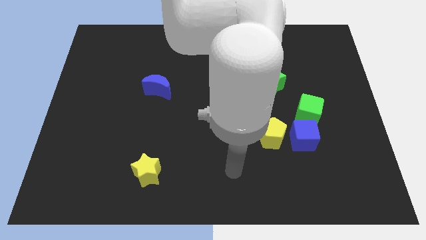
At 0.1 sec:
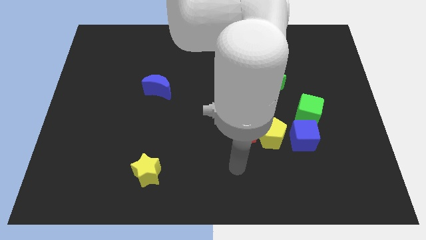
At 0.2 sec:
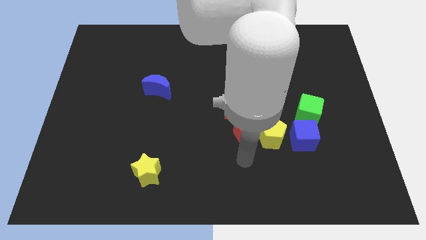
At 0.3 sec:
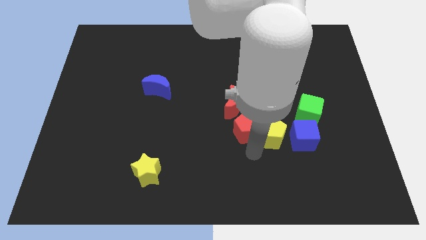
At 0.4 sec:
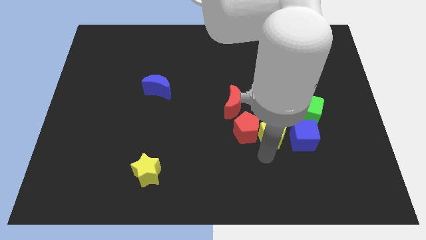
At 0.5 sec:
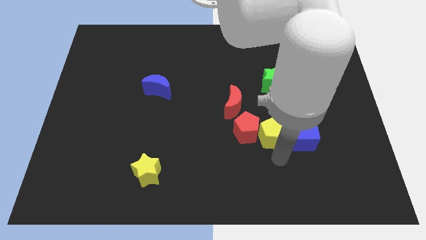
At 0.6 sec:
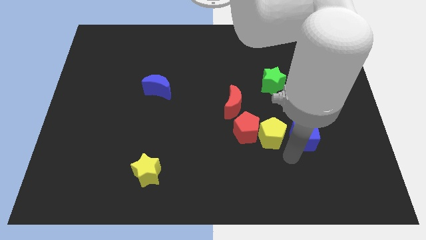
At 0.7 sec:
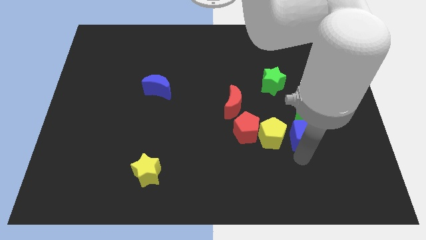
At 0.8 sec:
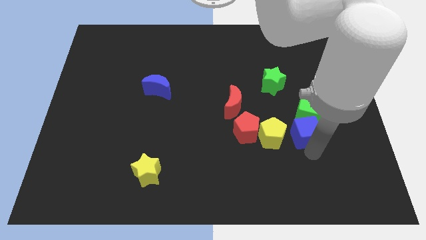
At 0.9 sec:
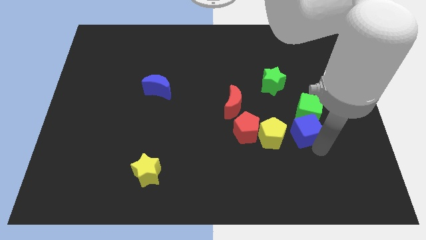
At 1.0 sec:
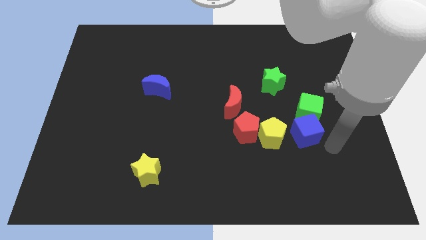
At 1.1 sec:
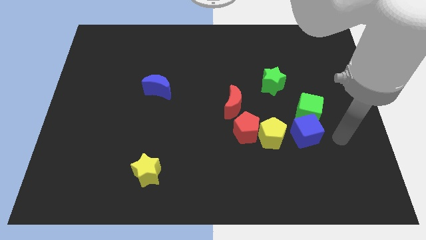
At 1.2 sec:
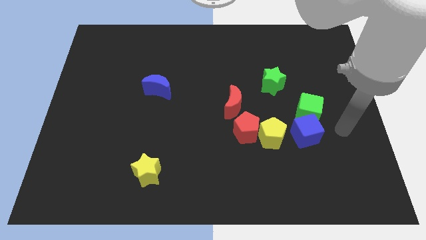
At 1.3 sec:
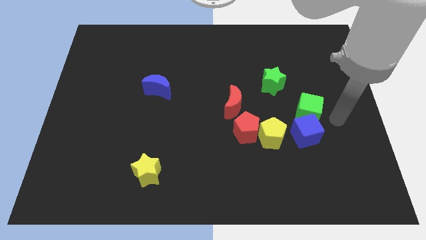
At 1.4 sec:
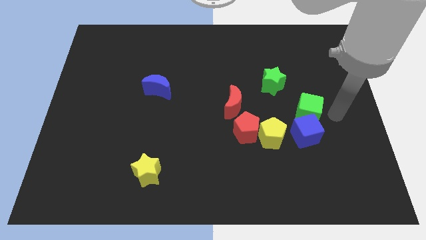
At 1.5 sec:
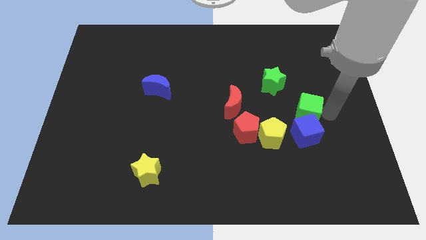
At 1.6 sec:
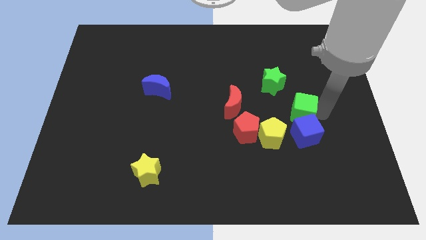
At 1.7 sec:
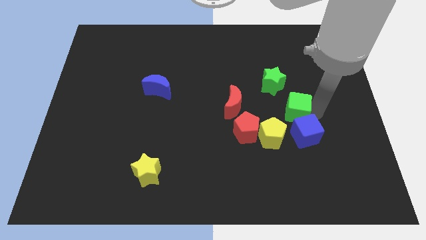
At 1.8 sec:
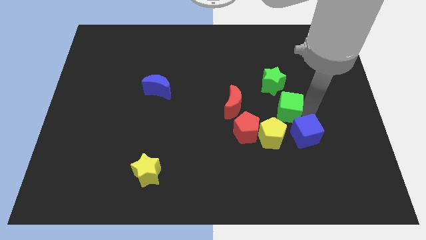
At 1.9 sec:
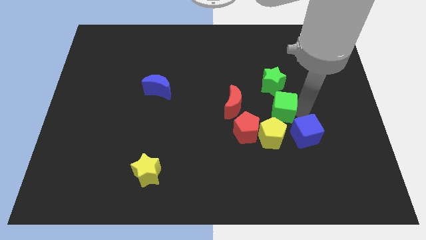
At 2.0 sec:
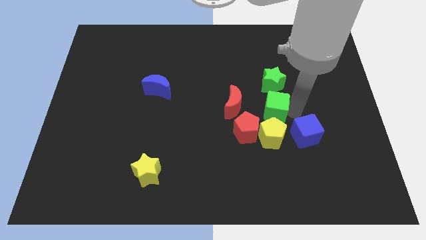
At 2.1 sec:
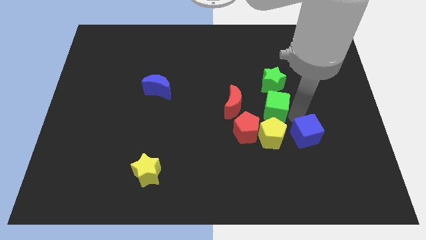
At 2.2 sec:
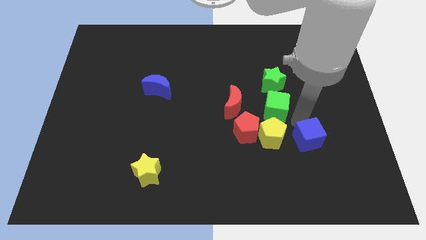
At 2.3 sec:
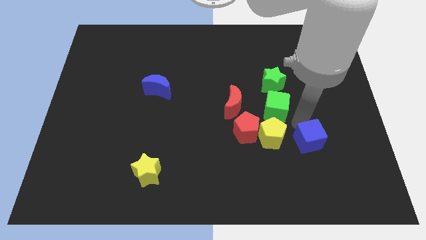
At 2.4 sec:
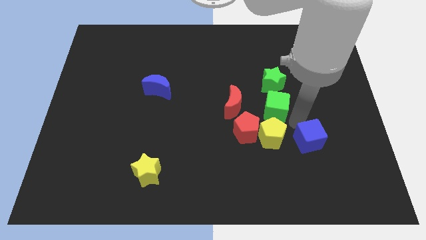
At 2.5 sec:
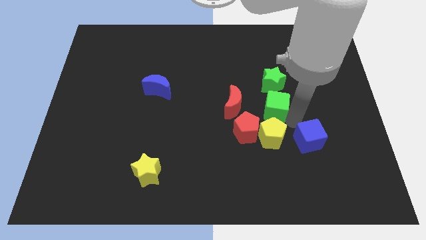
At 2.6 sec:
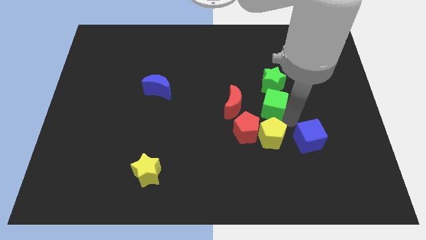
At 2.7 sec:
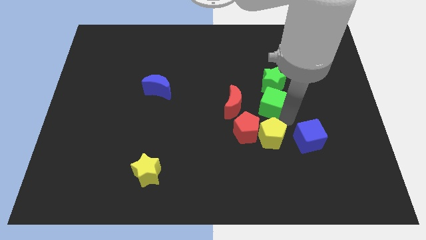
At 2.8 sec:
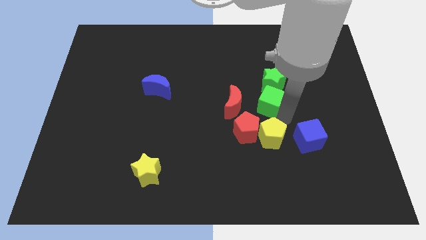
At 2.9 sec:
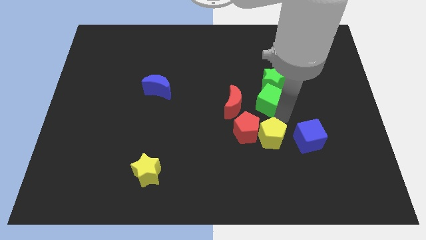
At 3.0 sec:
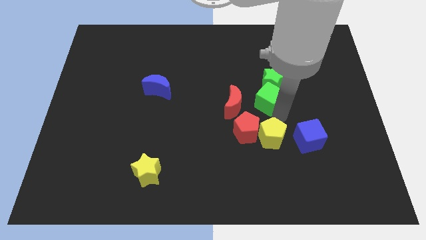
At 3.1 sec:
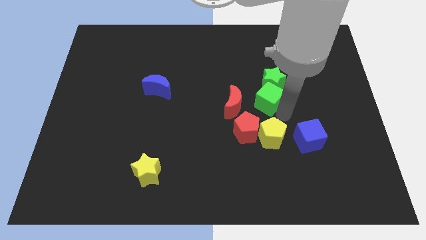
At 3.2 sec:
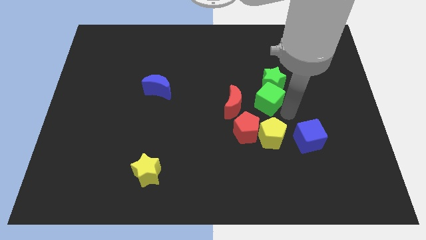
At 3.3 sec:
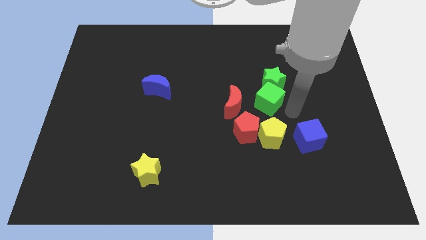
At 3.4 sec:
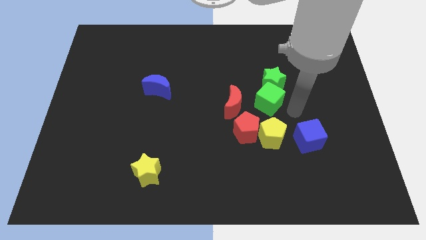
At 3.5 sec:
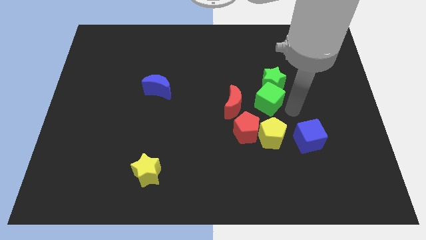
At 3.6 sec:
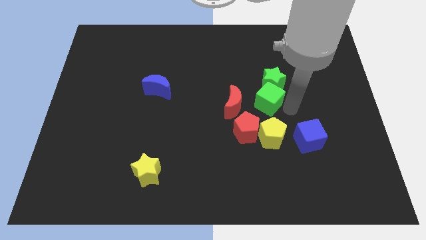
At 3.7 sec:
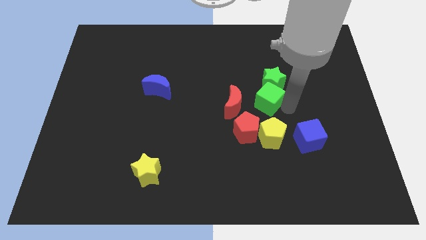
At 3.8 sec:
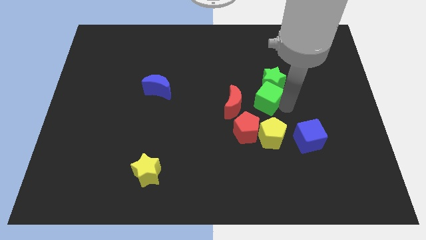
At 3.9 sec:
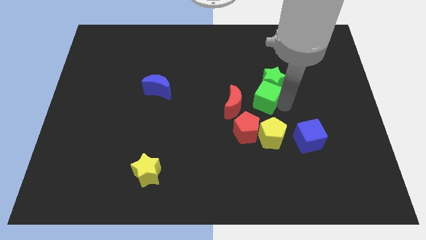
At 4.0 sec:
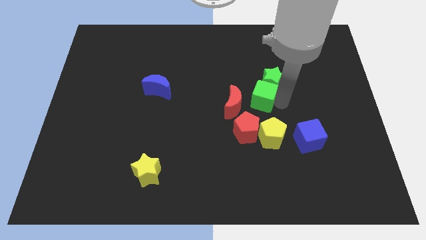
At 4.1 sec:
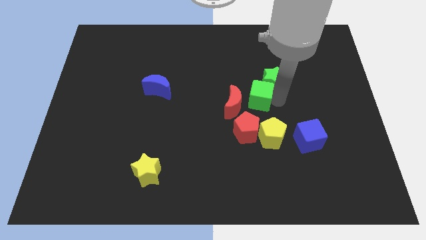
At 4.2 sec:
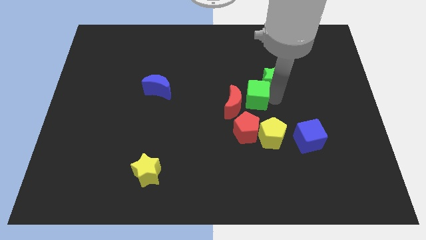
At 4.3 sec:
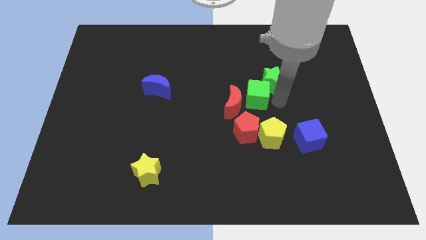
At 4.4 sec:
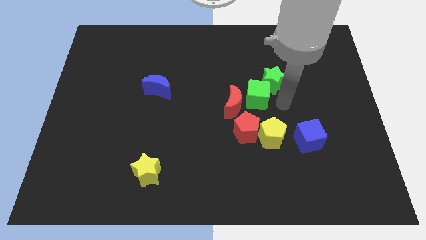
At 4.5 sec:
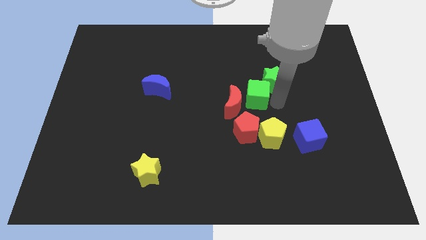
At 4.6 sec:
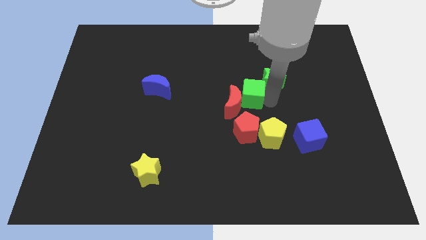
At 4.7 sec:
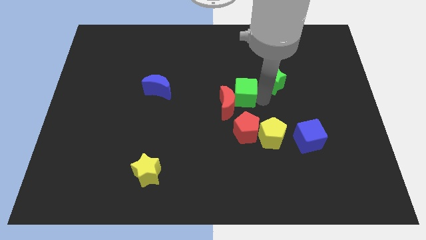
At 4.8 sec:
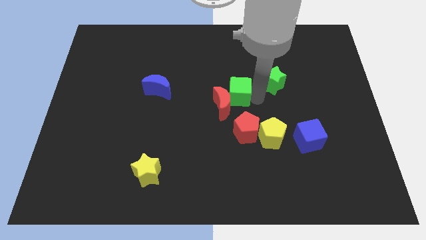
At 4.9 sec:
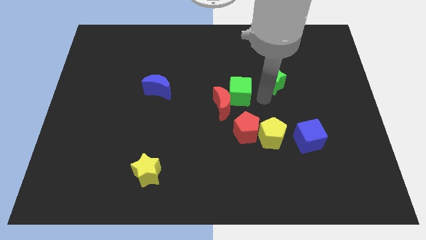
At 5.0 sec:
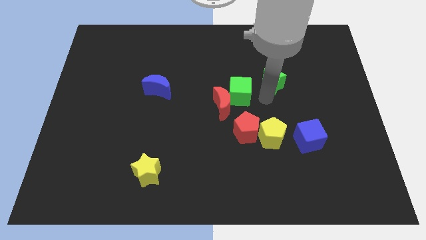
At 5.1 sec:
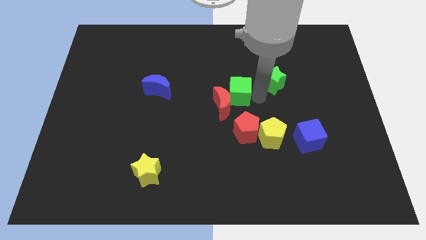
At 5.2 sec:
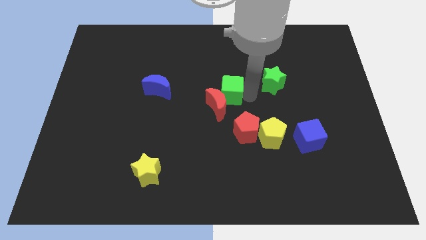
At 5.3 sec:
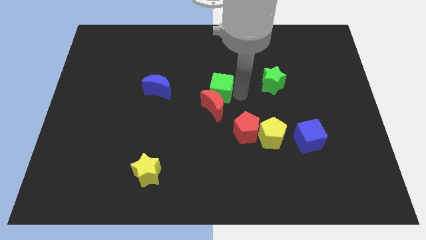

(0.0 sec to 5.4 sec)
slide the green cube diagonally up and to the left of the red moon

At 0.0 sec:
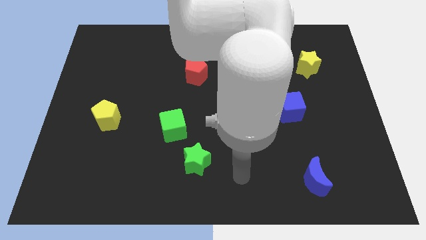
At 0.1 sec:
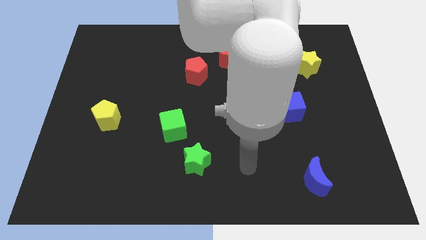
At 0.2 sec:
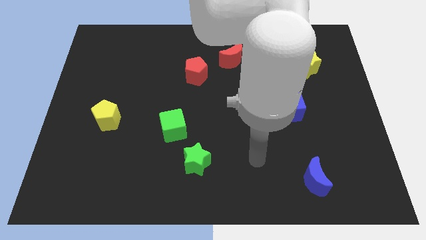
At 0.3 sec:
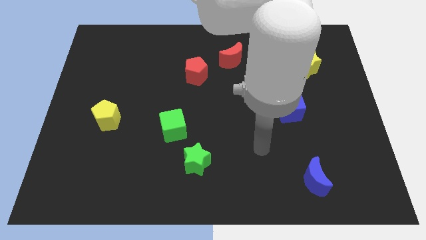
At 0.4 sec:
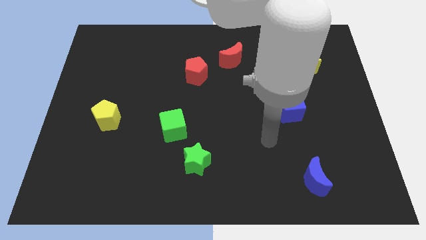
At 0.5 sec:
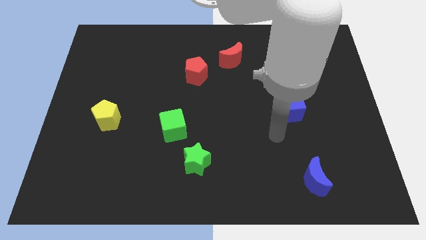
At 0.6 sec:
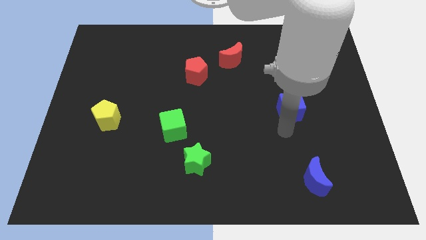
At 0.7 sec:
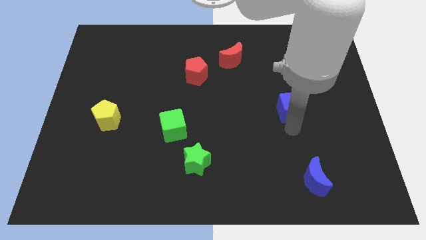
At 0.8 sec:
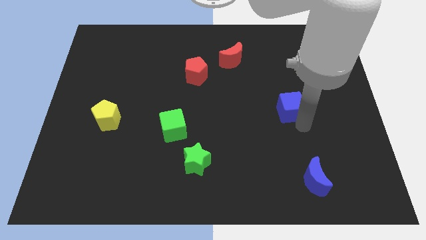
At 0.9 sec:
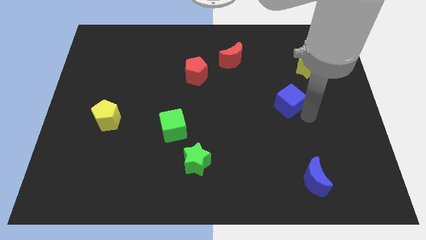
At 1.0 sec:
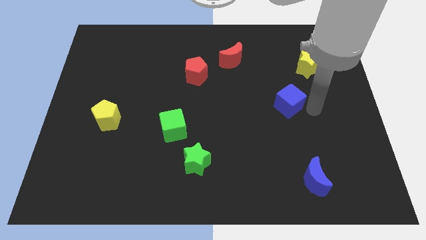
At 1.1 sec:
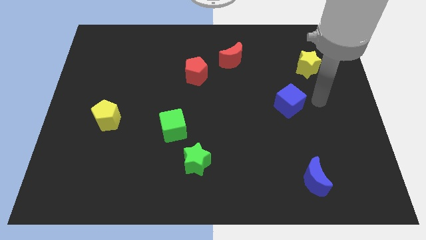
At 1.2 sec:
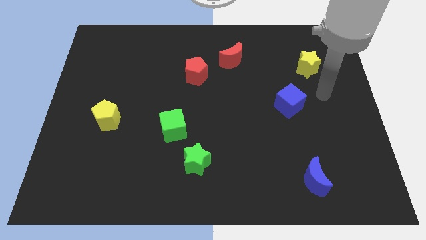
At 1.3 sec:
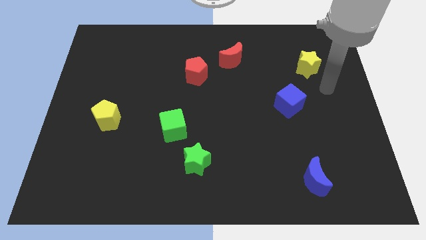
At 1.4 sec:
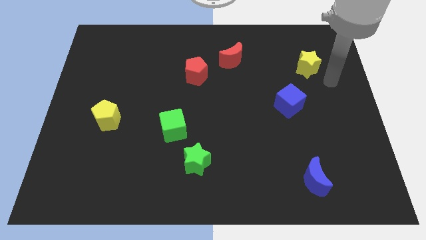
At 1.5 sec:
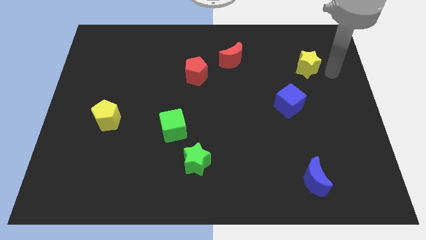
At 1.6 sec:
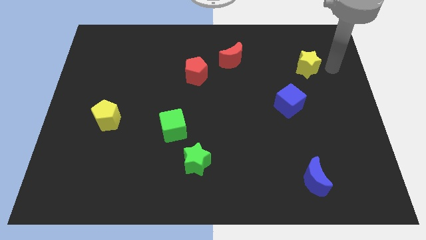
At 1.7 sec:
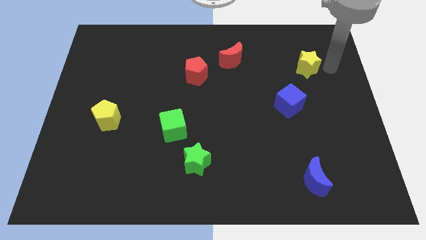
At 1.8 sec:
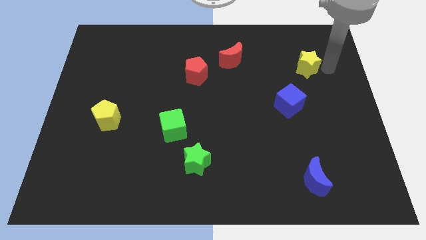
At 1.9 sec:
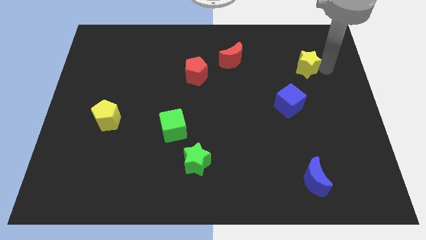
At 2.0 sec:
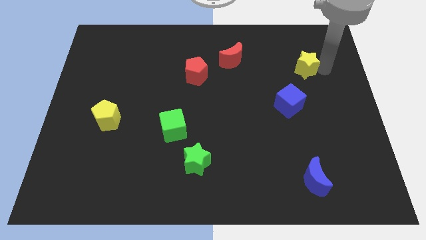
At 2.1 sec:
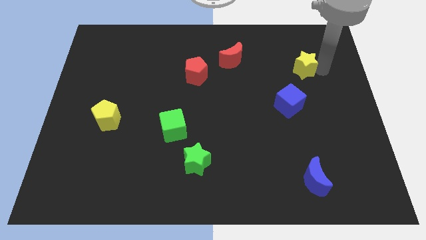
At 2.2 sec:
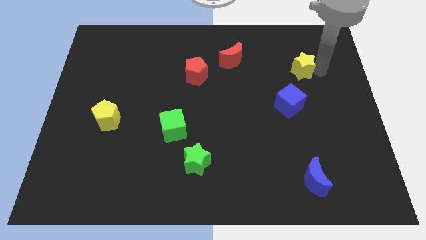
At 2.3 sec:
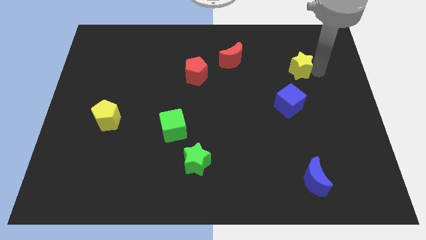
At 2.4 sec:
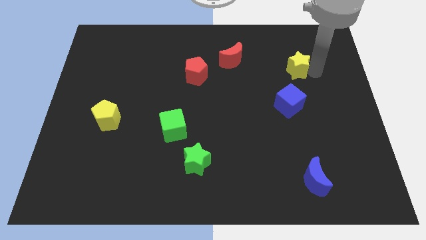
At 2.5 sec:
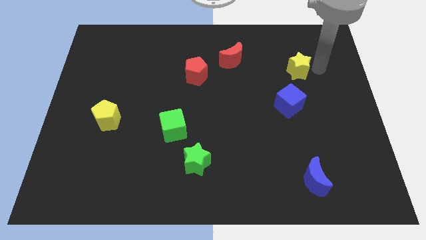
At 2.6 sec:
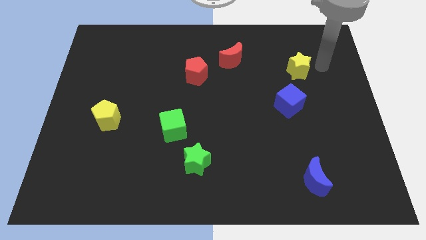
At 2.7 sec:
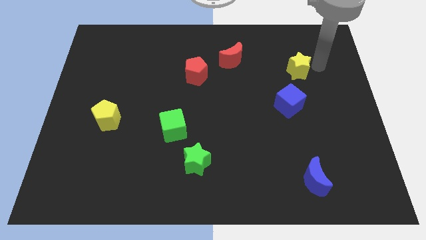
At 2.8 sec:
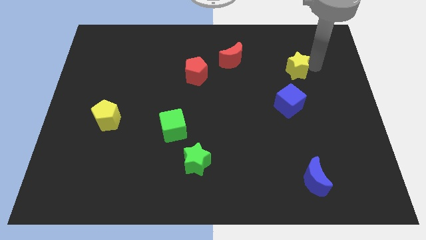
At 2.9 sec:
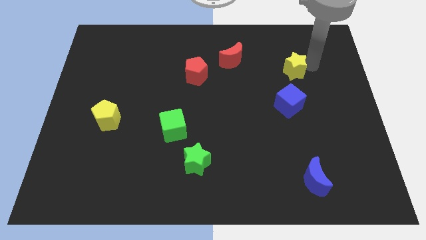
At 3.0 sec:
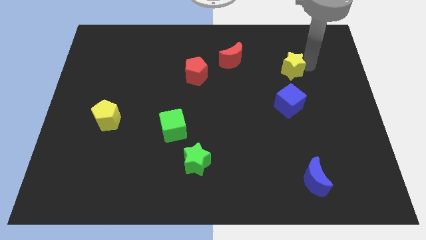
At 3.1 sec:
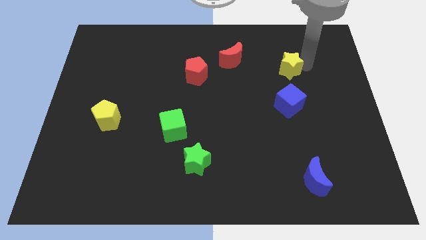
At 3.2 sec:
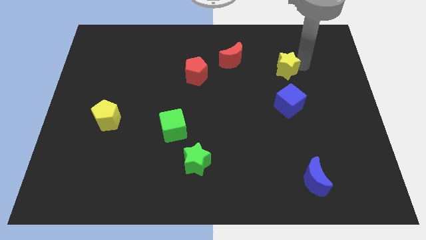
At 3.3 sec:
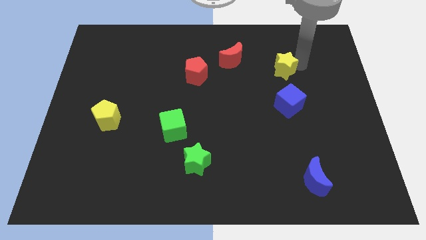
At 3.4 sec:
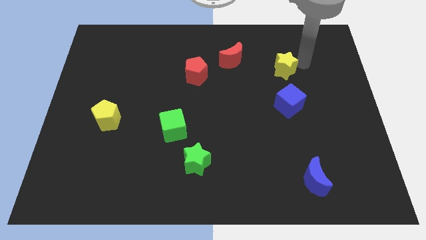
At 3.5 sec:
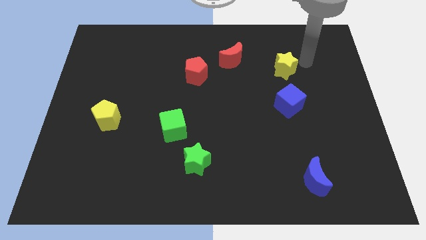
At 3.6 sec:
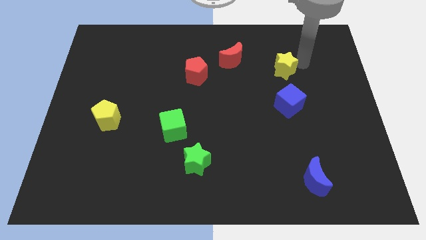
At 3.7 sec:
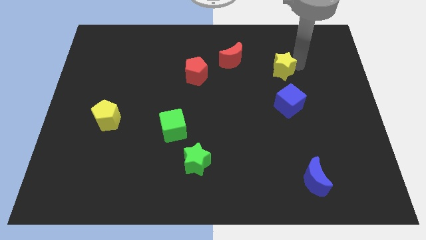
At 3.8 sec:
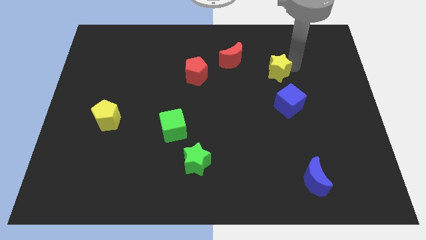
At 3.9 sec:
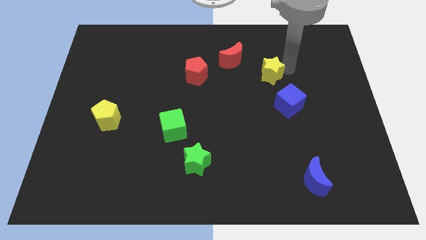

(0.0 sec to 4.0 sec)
put the yellow star diagonally down and to the right of the red moon
